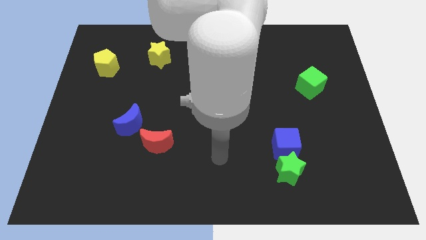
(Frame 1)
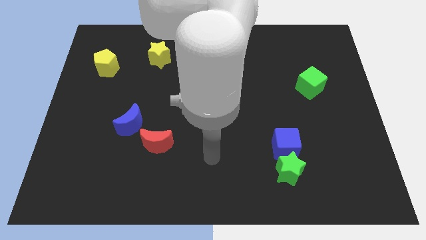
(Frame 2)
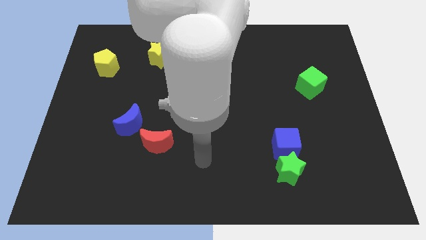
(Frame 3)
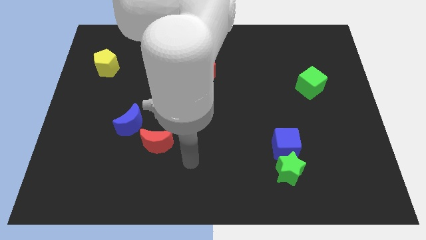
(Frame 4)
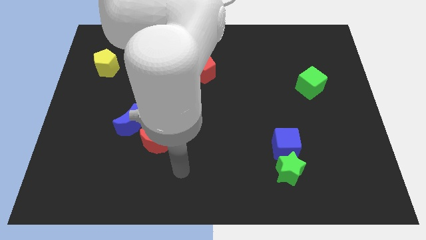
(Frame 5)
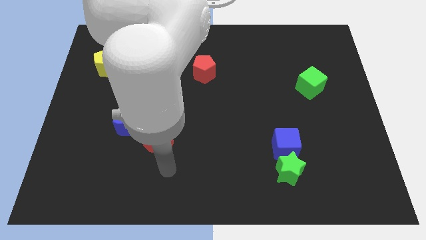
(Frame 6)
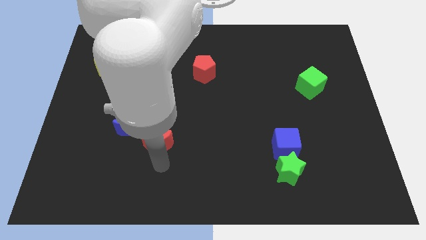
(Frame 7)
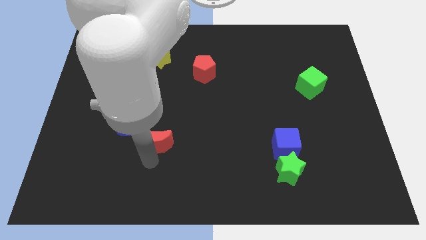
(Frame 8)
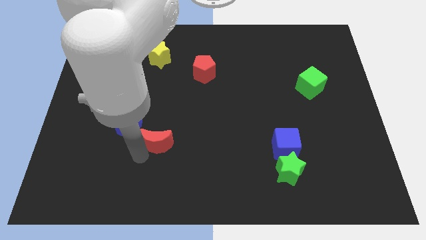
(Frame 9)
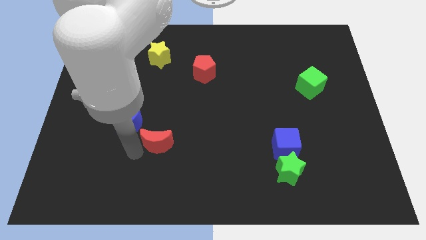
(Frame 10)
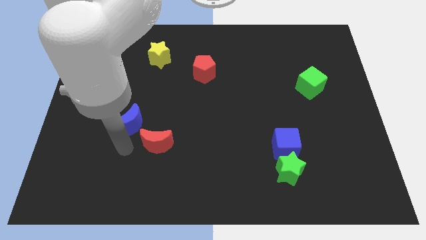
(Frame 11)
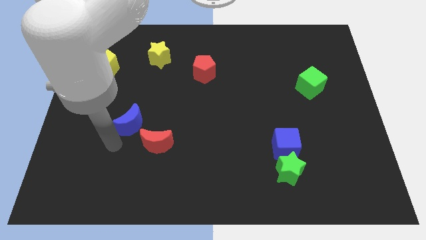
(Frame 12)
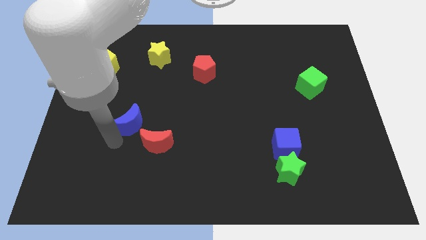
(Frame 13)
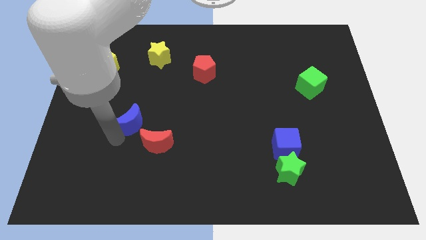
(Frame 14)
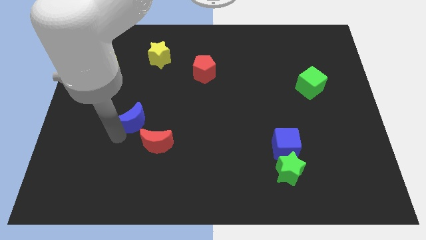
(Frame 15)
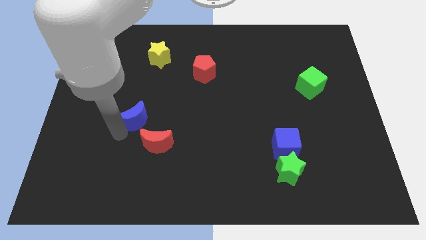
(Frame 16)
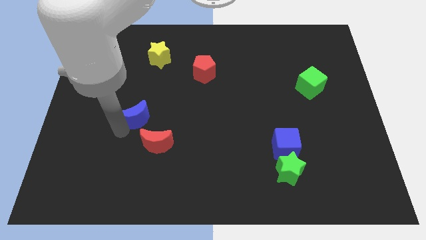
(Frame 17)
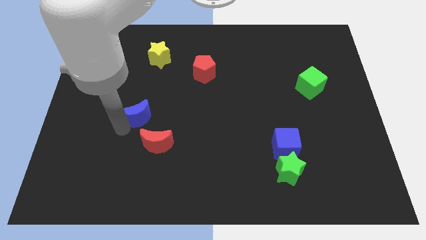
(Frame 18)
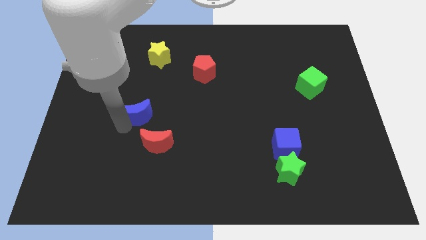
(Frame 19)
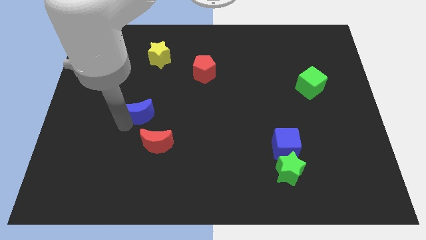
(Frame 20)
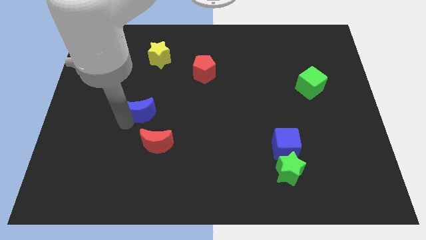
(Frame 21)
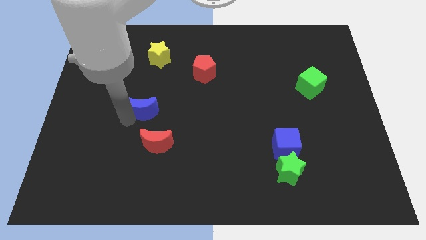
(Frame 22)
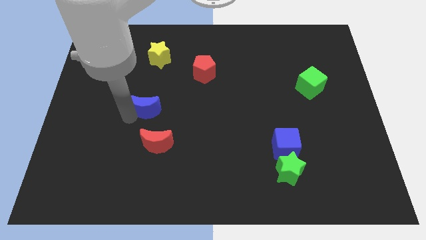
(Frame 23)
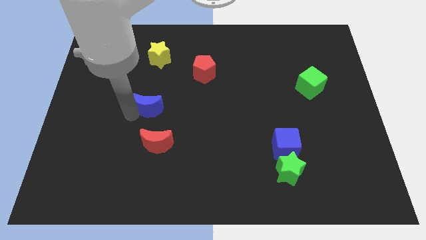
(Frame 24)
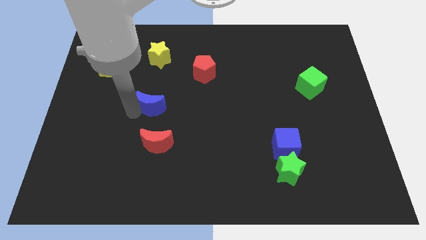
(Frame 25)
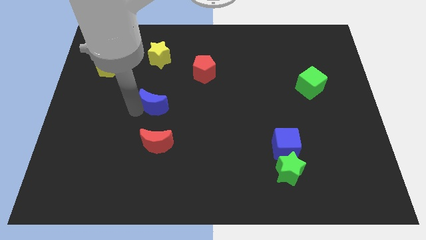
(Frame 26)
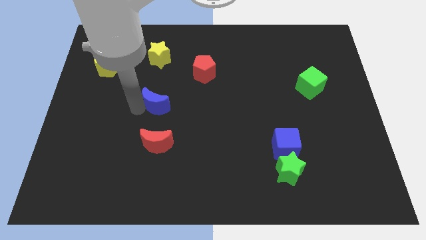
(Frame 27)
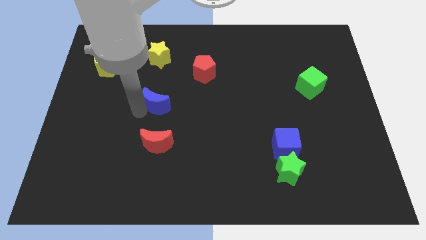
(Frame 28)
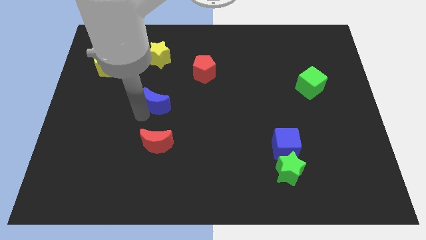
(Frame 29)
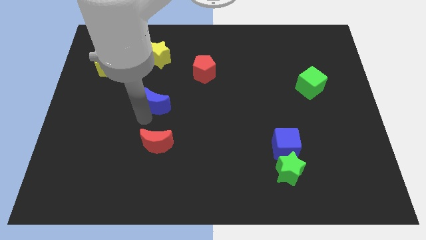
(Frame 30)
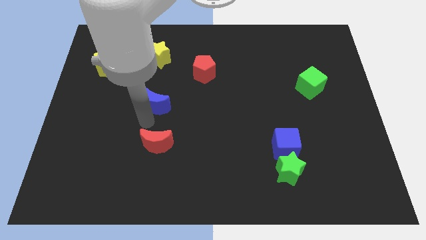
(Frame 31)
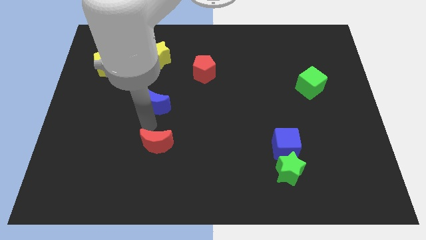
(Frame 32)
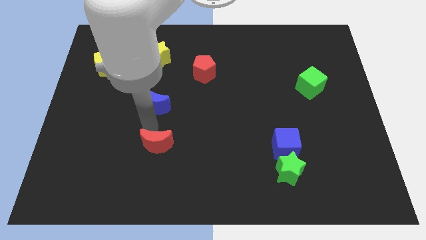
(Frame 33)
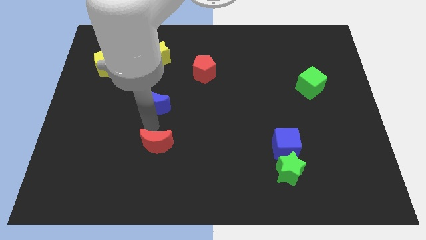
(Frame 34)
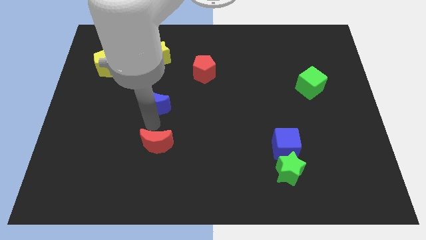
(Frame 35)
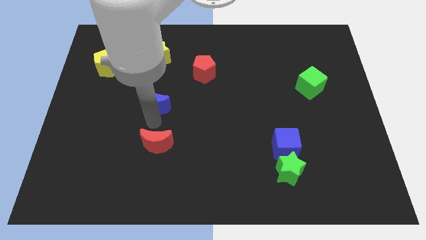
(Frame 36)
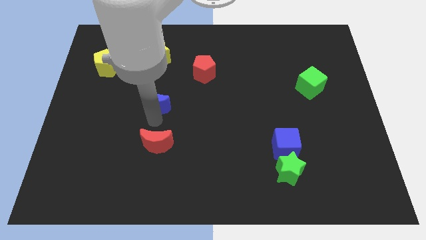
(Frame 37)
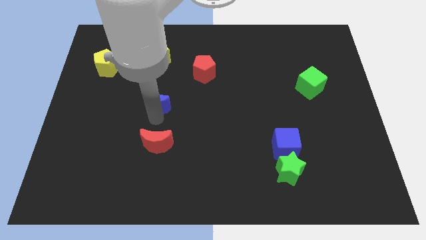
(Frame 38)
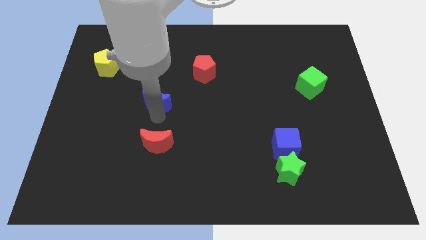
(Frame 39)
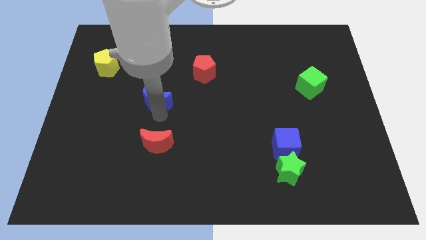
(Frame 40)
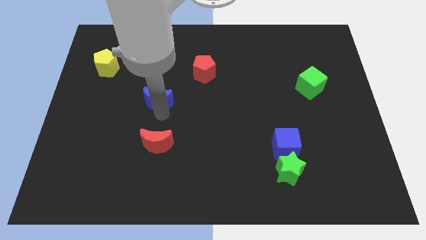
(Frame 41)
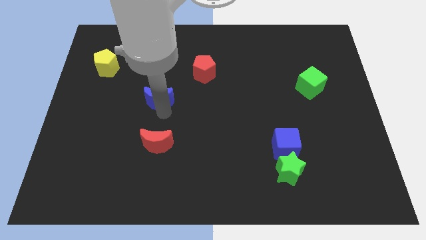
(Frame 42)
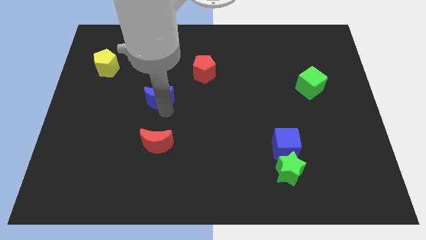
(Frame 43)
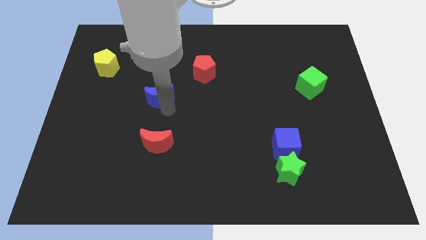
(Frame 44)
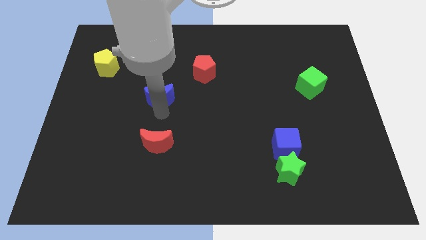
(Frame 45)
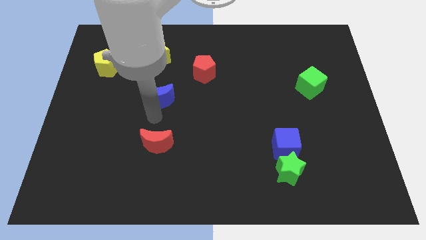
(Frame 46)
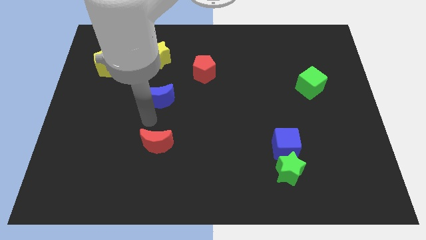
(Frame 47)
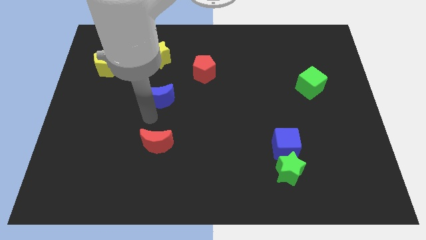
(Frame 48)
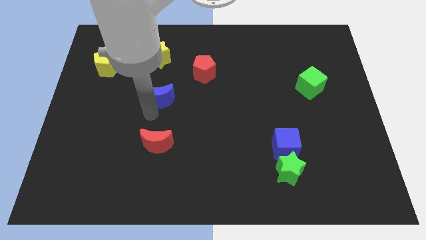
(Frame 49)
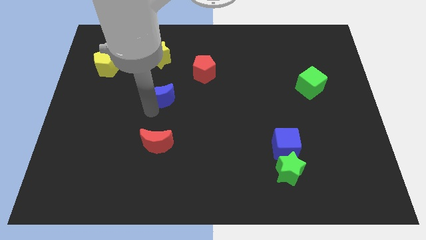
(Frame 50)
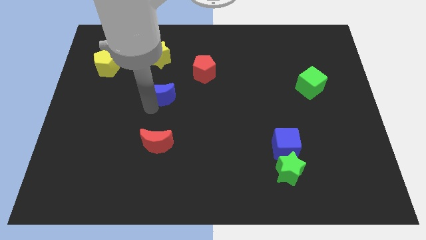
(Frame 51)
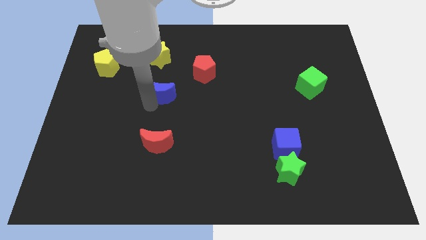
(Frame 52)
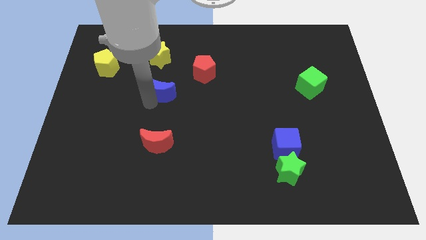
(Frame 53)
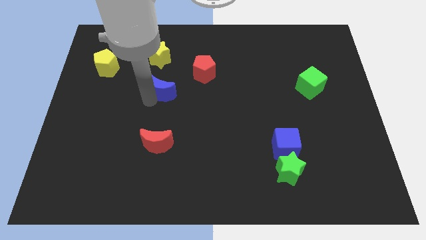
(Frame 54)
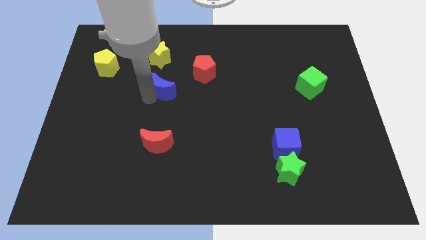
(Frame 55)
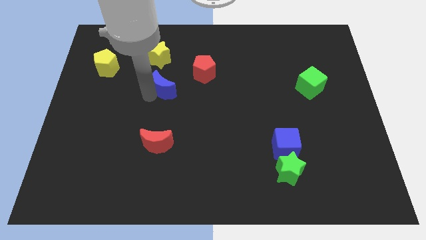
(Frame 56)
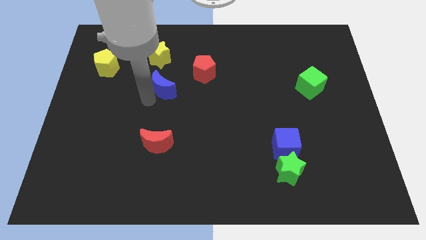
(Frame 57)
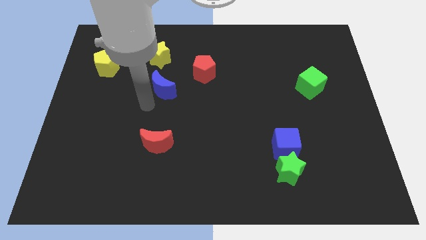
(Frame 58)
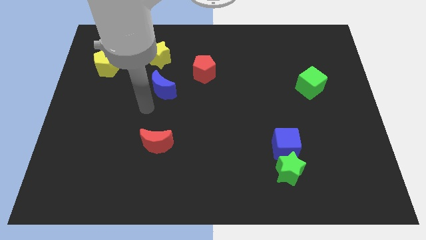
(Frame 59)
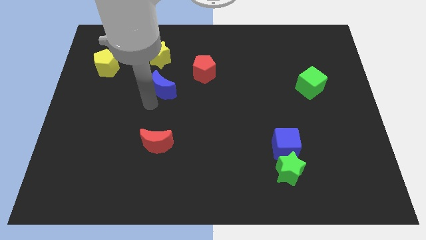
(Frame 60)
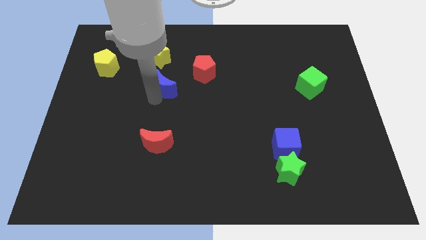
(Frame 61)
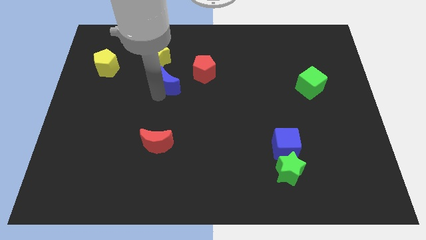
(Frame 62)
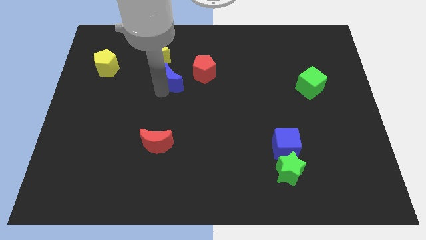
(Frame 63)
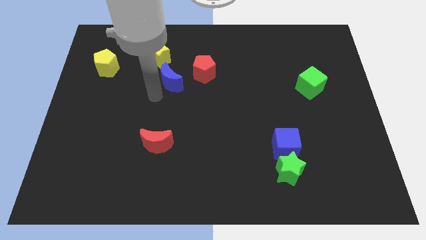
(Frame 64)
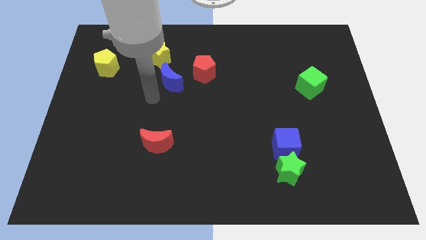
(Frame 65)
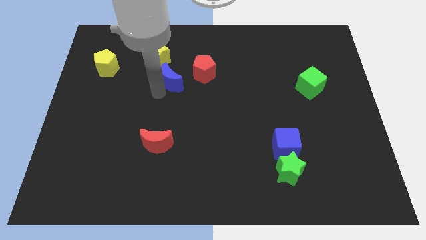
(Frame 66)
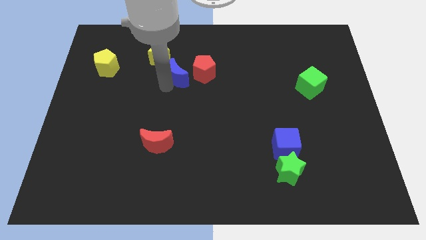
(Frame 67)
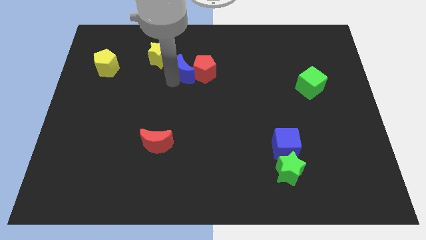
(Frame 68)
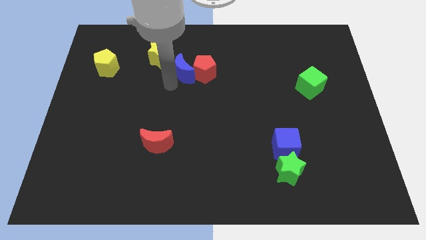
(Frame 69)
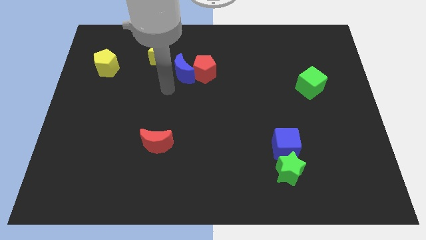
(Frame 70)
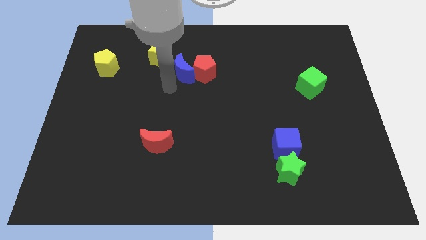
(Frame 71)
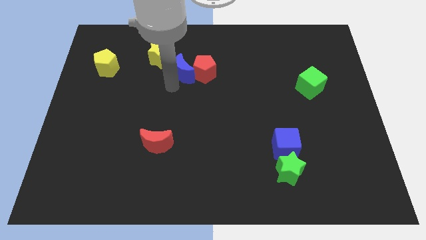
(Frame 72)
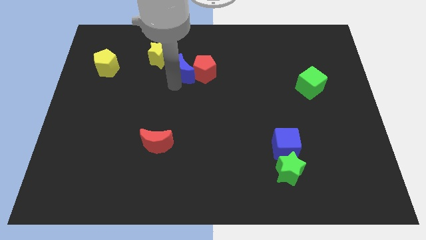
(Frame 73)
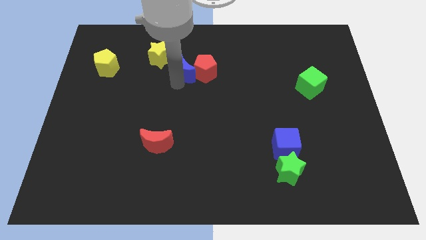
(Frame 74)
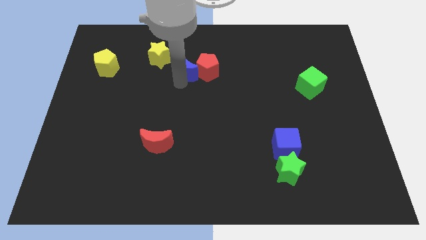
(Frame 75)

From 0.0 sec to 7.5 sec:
put the blue moon to the right side of the yellow star

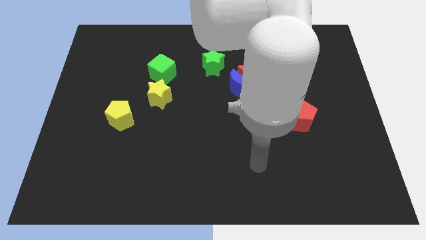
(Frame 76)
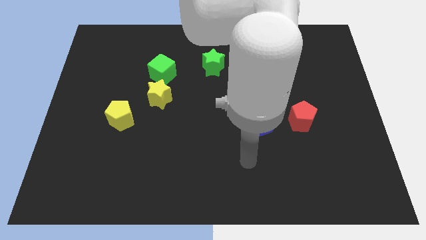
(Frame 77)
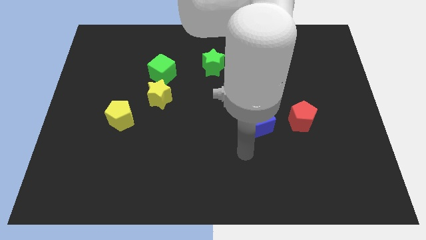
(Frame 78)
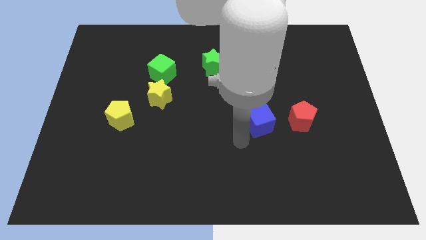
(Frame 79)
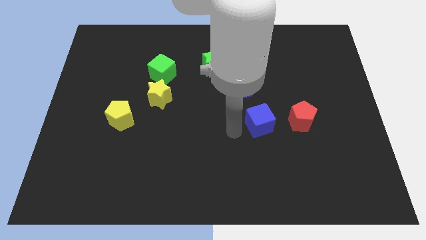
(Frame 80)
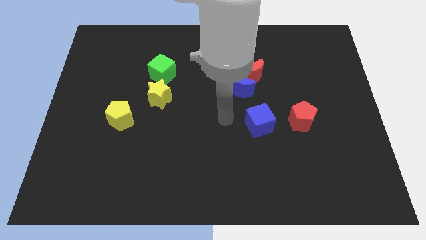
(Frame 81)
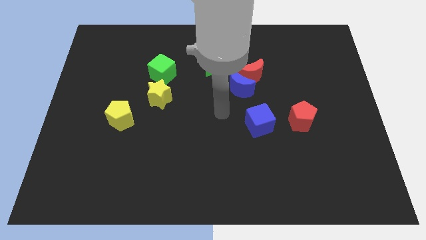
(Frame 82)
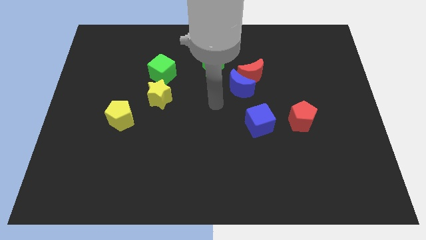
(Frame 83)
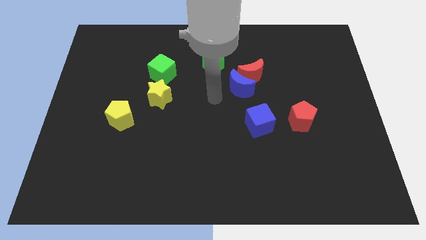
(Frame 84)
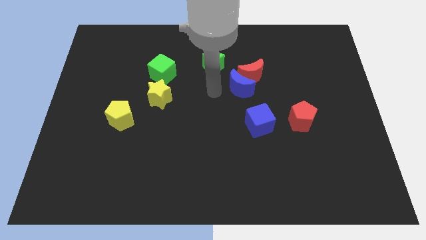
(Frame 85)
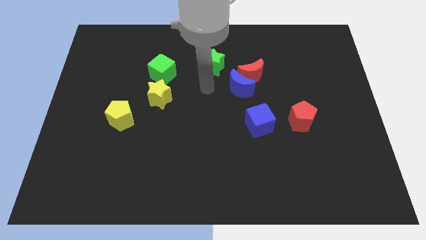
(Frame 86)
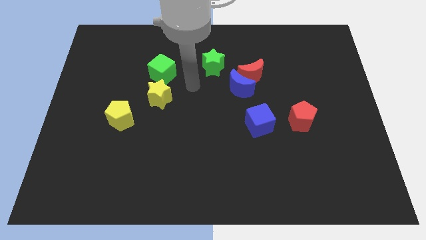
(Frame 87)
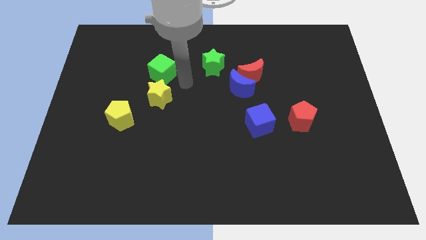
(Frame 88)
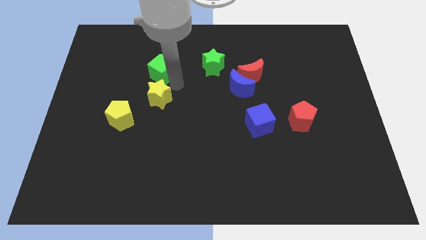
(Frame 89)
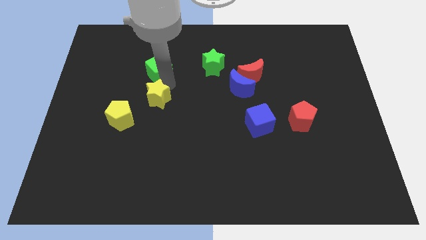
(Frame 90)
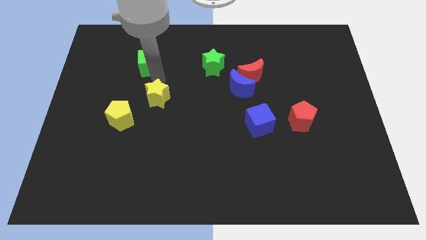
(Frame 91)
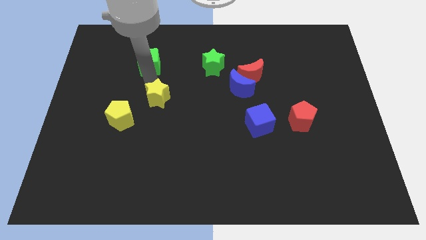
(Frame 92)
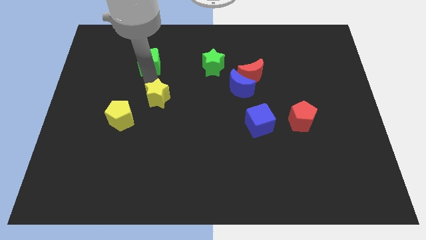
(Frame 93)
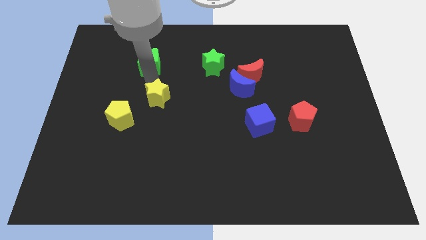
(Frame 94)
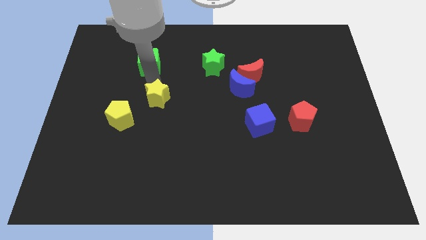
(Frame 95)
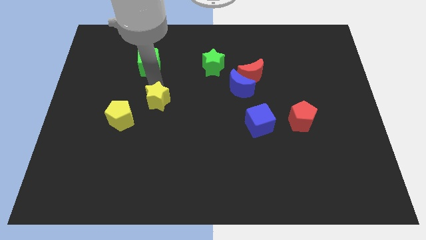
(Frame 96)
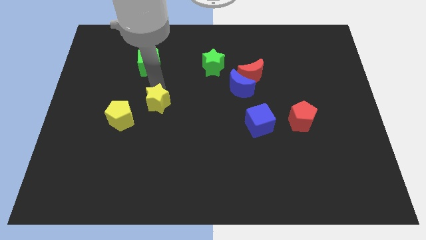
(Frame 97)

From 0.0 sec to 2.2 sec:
push the yellow star just right of the yellow pentagon
